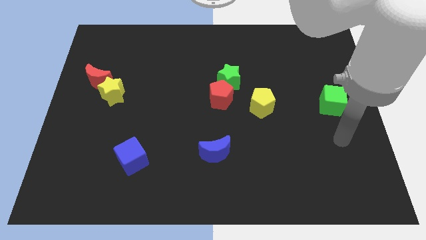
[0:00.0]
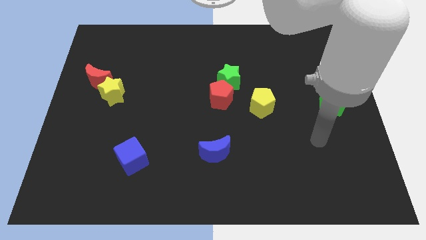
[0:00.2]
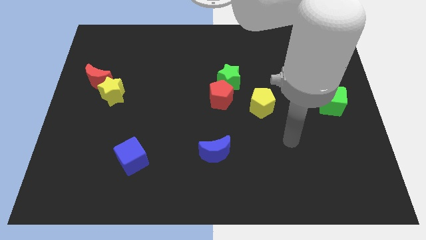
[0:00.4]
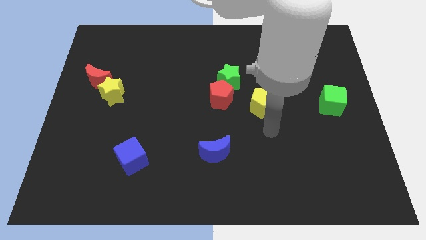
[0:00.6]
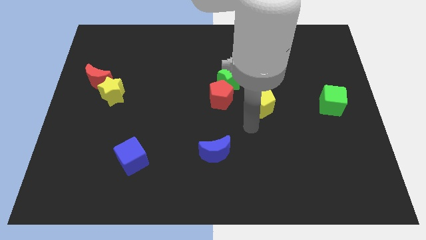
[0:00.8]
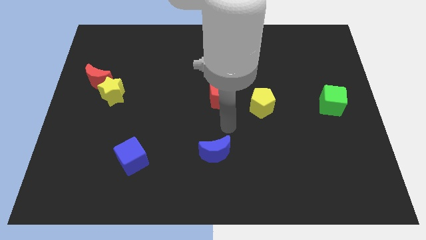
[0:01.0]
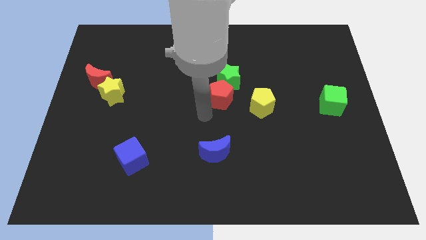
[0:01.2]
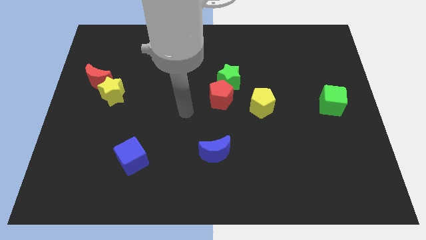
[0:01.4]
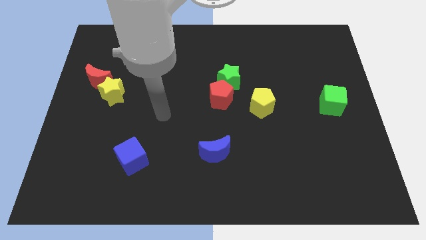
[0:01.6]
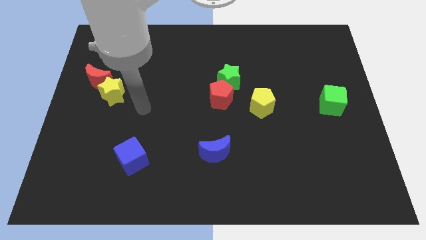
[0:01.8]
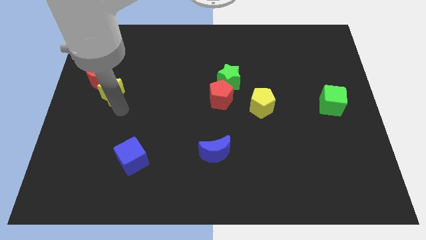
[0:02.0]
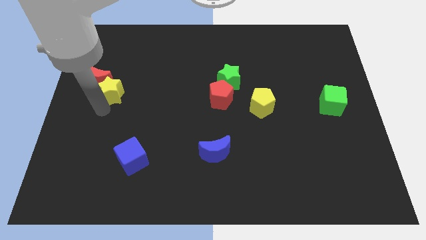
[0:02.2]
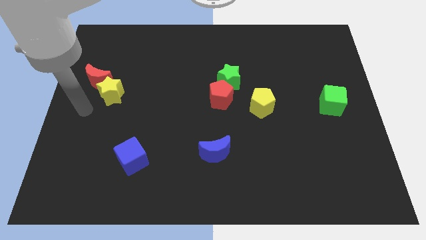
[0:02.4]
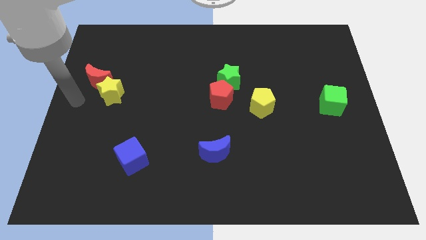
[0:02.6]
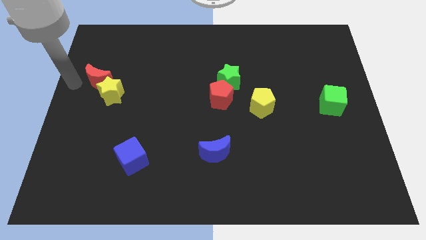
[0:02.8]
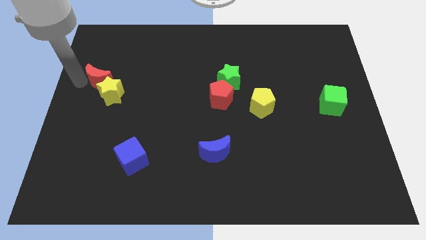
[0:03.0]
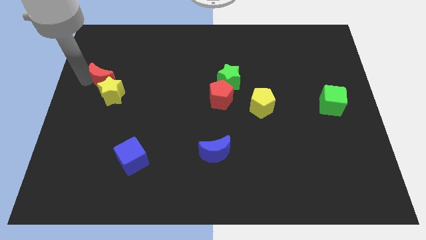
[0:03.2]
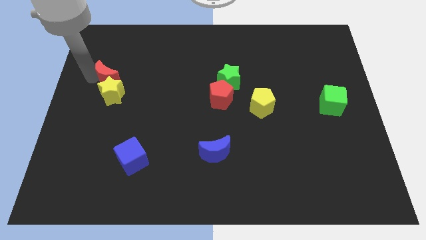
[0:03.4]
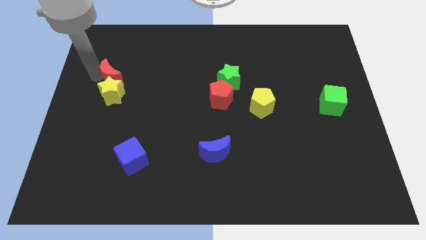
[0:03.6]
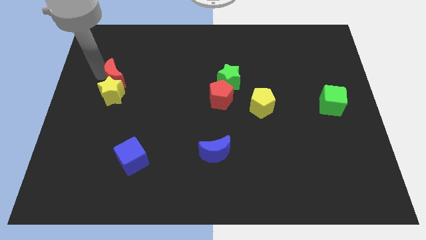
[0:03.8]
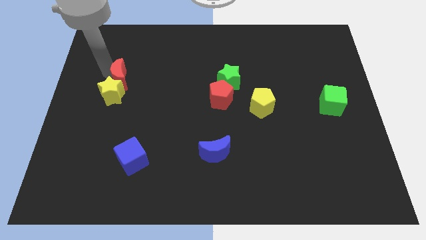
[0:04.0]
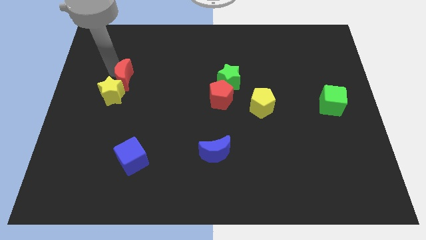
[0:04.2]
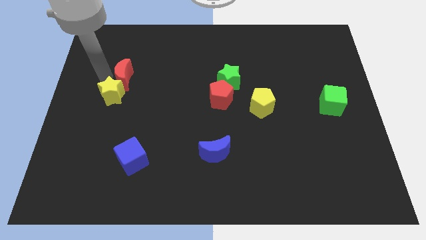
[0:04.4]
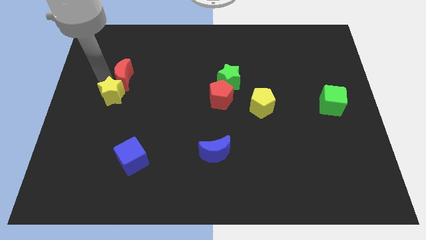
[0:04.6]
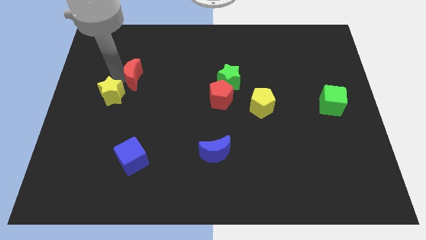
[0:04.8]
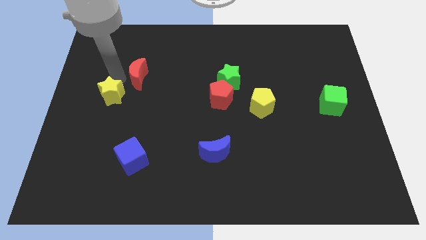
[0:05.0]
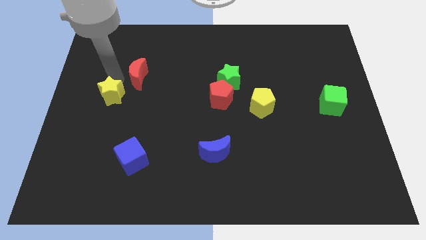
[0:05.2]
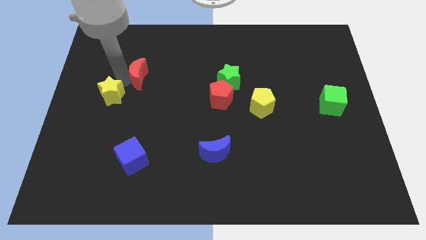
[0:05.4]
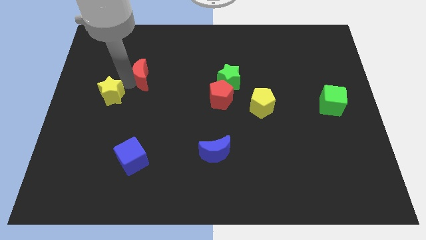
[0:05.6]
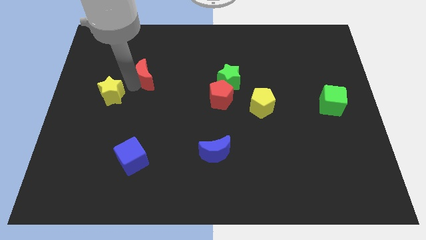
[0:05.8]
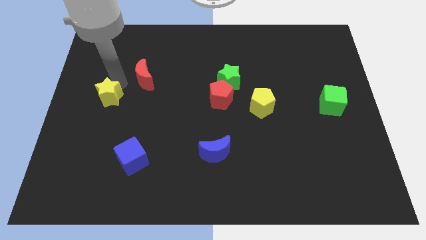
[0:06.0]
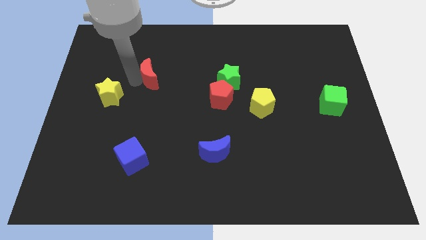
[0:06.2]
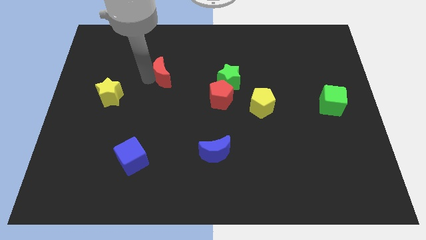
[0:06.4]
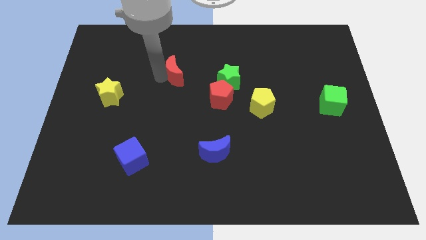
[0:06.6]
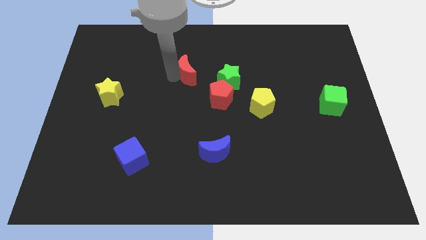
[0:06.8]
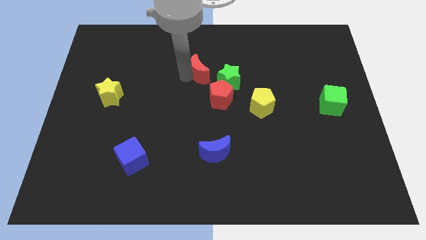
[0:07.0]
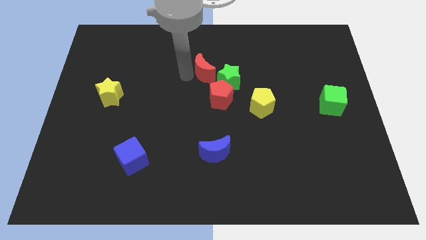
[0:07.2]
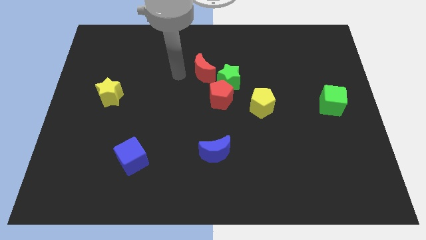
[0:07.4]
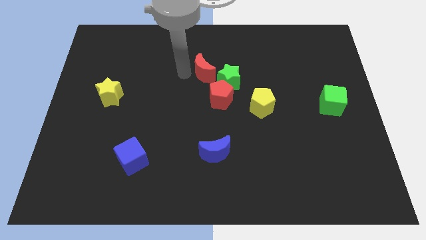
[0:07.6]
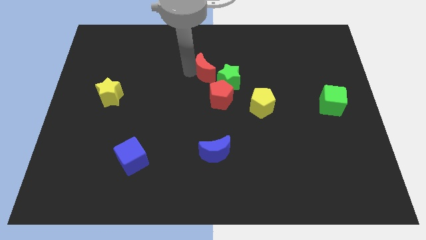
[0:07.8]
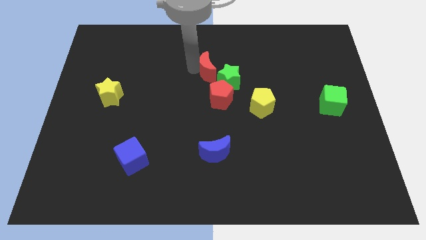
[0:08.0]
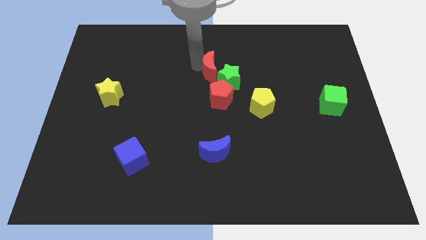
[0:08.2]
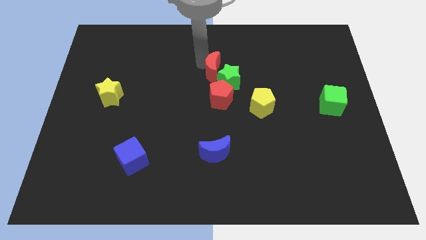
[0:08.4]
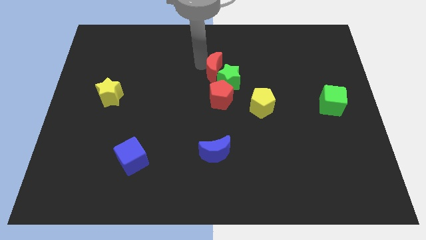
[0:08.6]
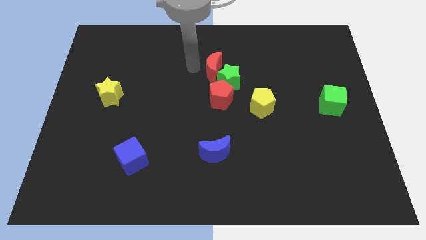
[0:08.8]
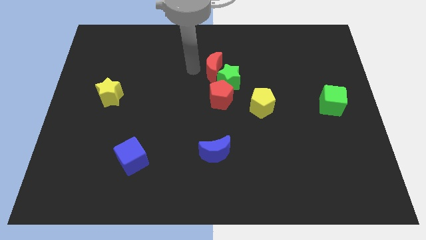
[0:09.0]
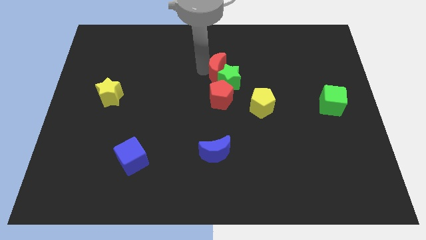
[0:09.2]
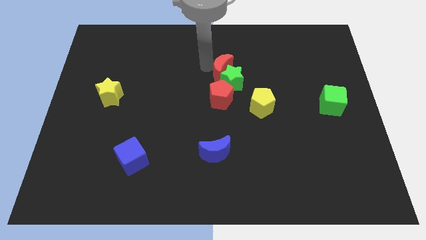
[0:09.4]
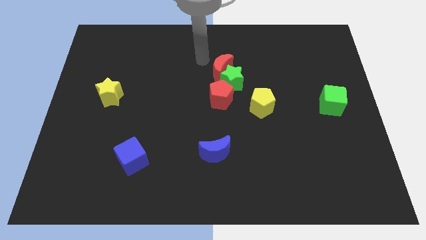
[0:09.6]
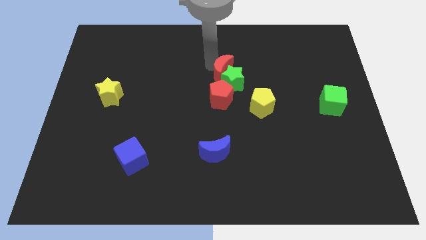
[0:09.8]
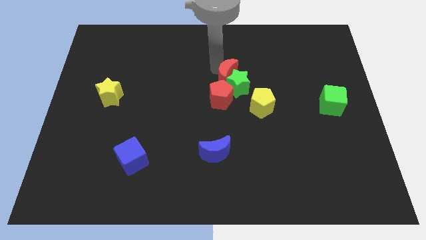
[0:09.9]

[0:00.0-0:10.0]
put the red moon diagonally up and to the right of the red pentagon

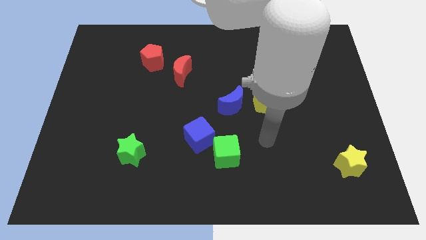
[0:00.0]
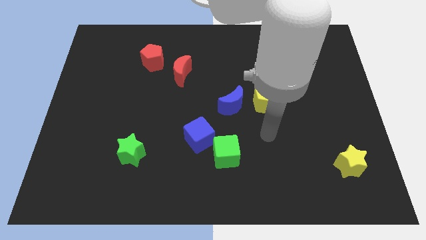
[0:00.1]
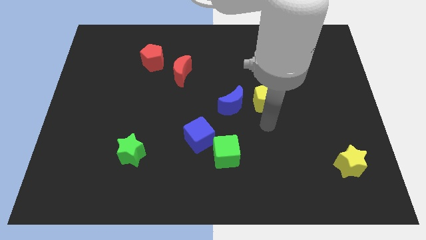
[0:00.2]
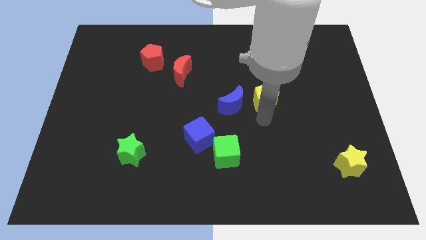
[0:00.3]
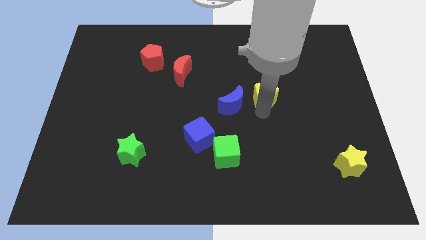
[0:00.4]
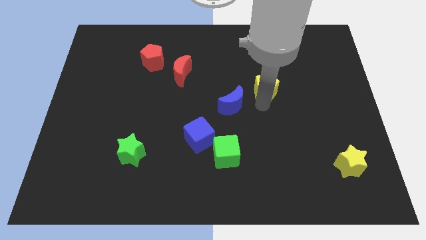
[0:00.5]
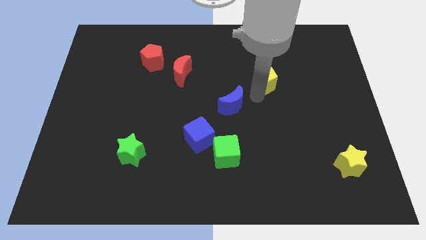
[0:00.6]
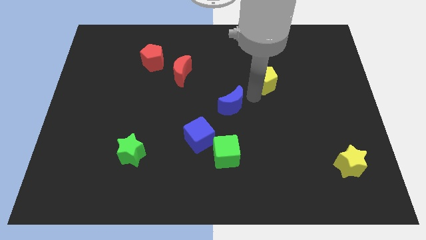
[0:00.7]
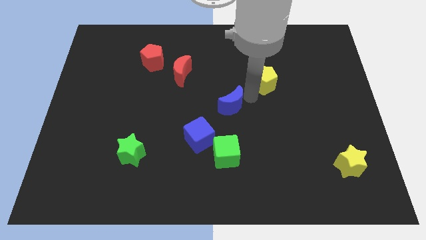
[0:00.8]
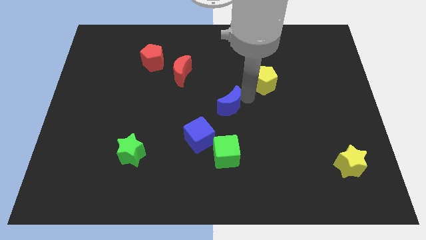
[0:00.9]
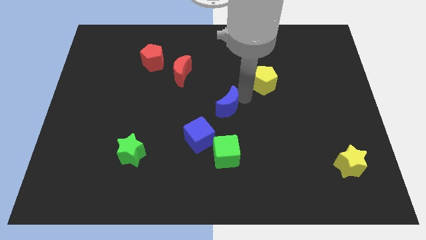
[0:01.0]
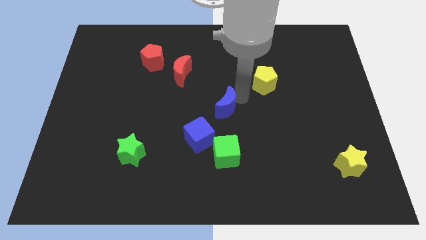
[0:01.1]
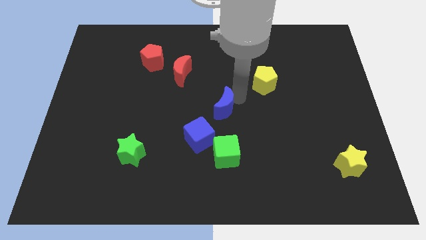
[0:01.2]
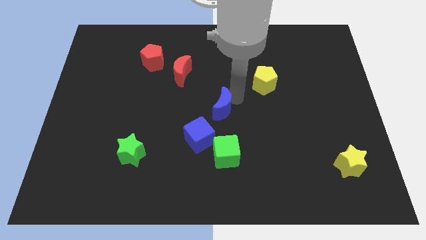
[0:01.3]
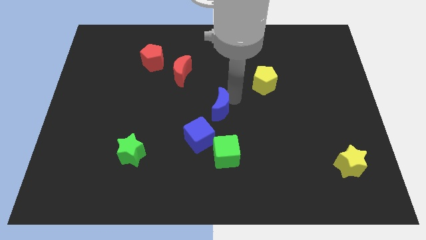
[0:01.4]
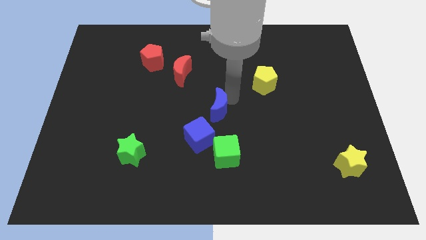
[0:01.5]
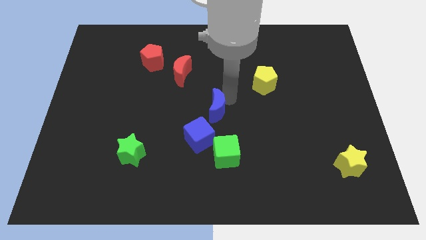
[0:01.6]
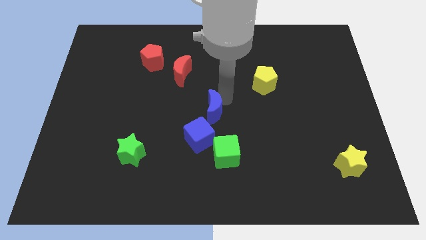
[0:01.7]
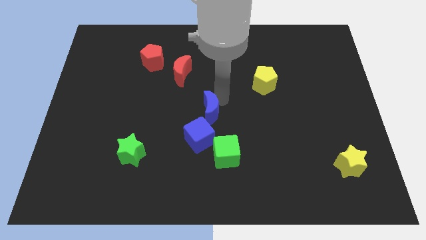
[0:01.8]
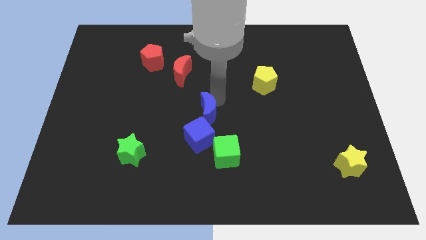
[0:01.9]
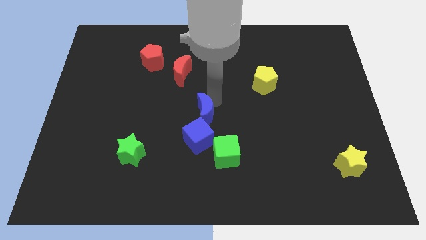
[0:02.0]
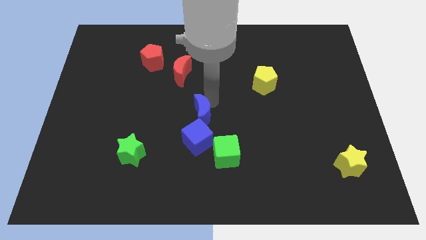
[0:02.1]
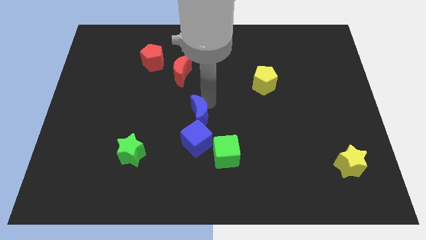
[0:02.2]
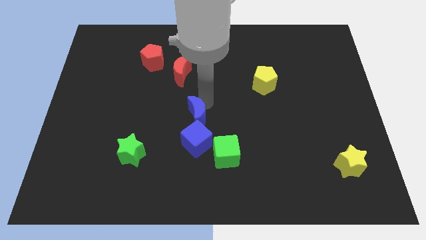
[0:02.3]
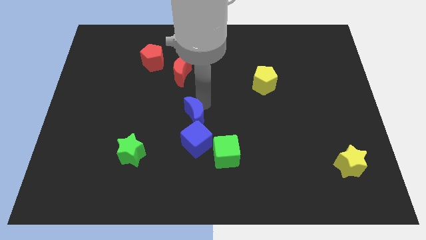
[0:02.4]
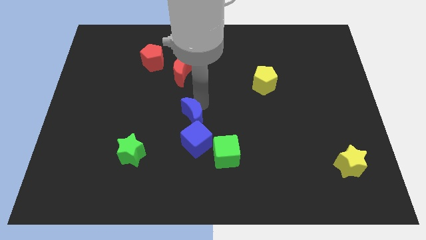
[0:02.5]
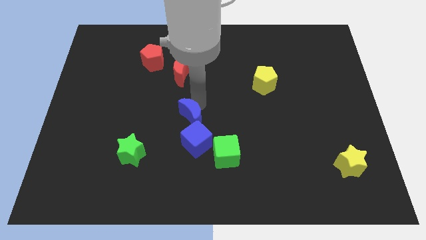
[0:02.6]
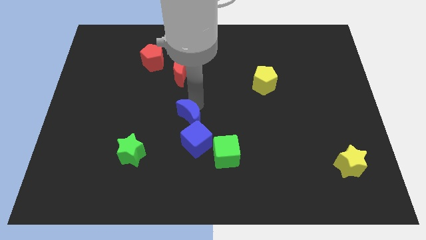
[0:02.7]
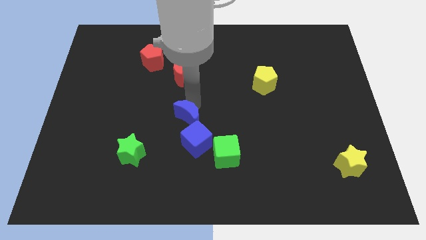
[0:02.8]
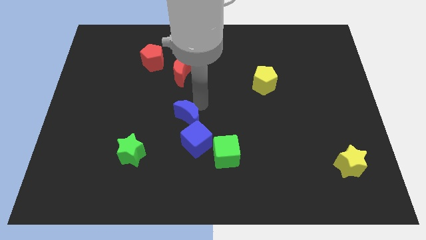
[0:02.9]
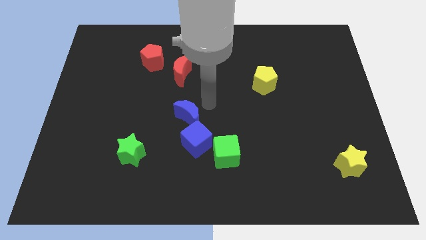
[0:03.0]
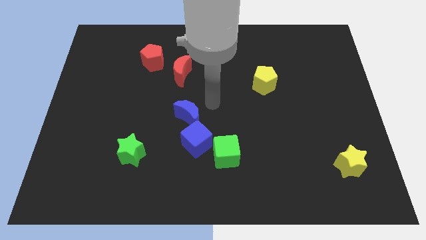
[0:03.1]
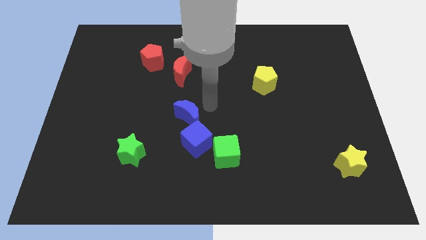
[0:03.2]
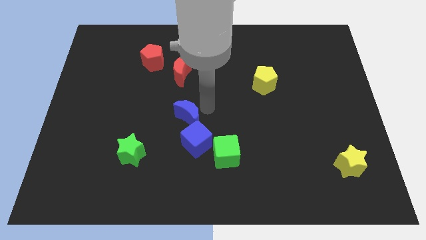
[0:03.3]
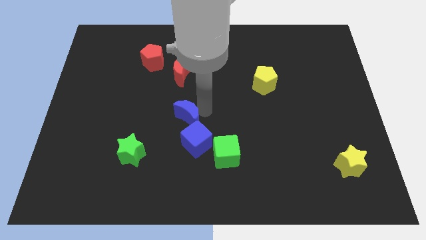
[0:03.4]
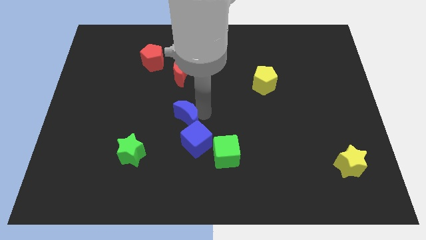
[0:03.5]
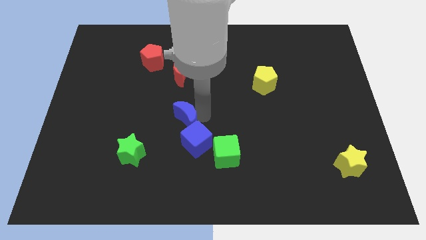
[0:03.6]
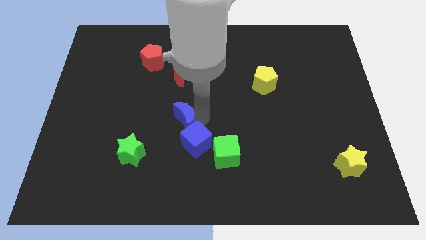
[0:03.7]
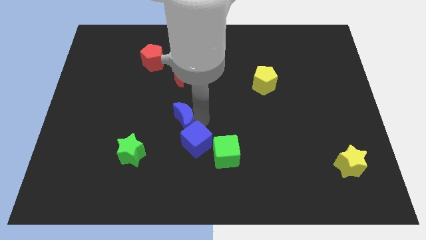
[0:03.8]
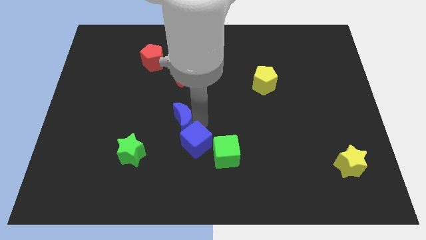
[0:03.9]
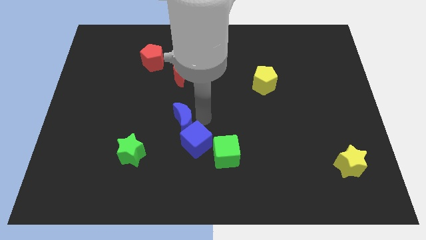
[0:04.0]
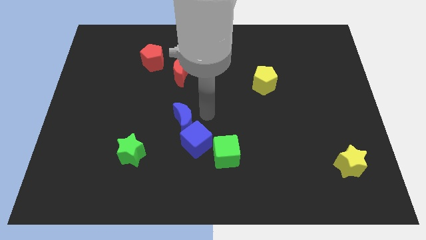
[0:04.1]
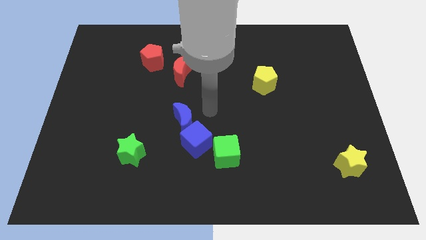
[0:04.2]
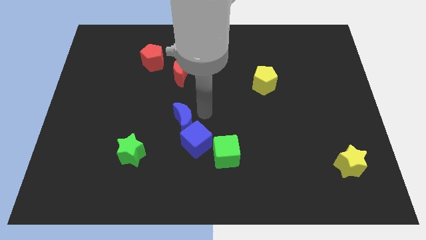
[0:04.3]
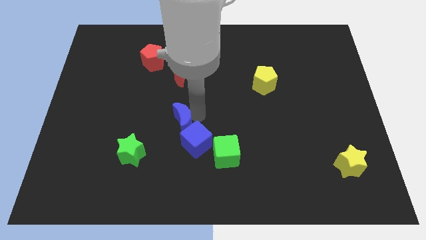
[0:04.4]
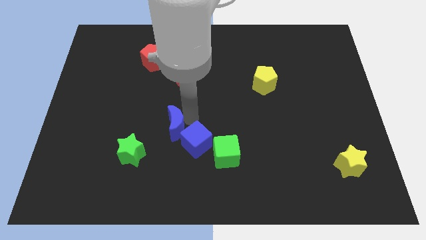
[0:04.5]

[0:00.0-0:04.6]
put the blue moon to the top right of the green star
